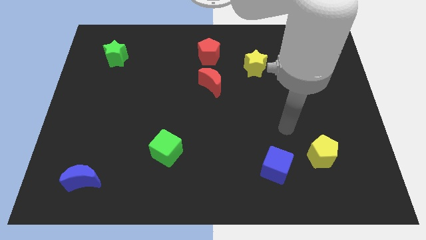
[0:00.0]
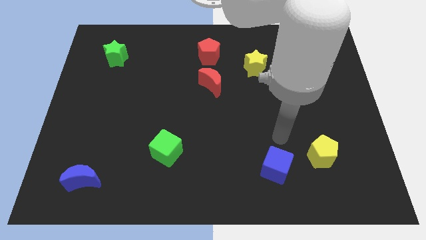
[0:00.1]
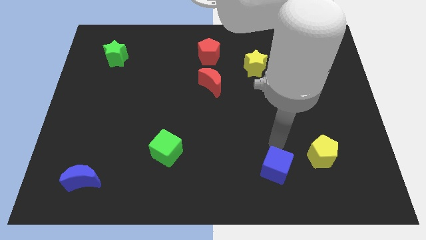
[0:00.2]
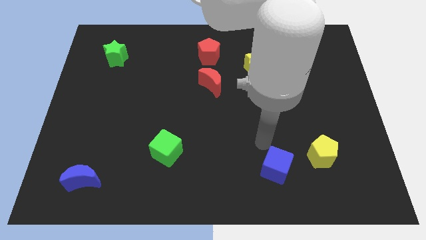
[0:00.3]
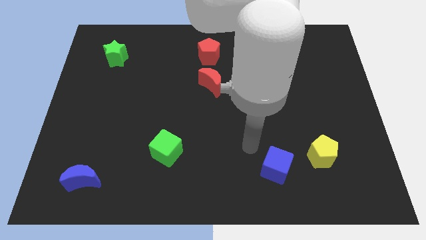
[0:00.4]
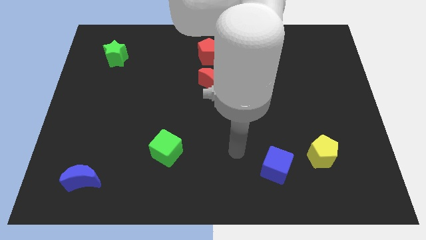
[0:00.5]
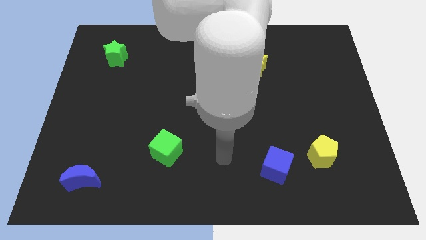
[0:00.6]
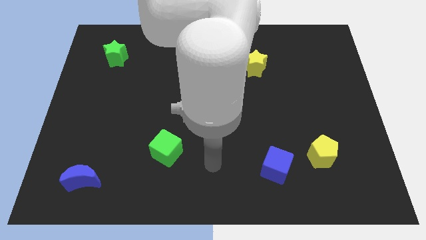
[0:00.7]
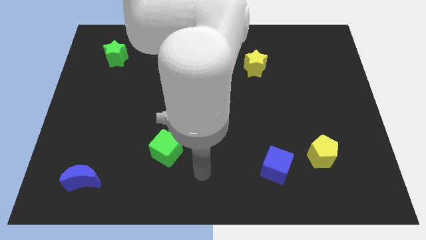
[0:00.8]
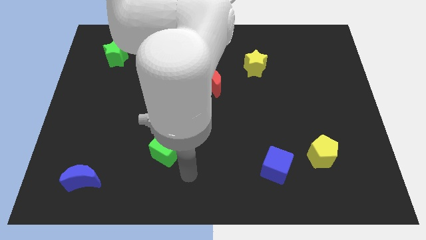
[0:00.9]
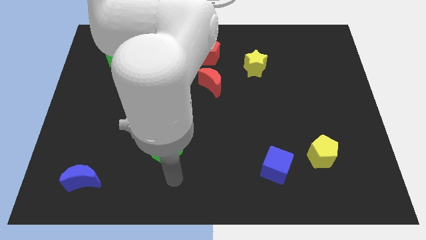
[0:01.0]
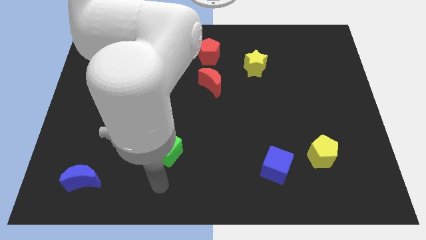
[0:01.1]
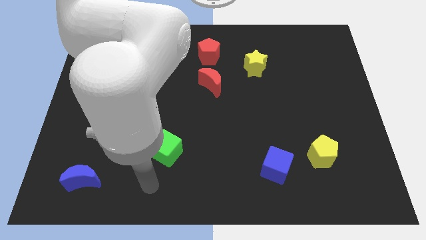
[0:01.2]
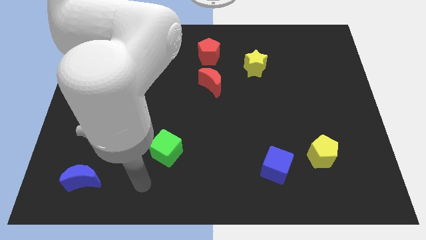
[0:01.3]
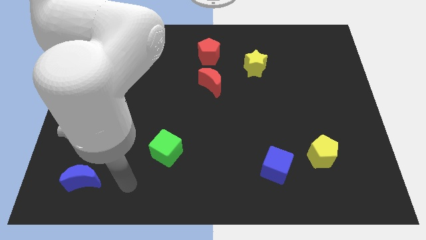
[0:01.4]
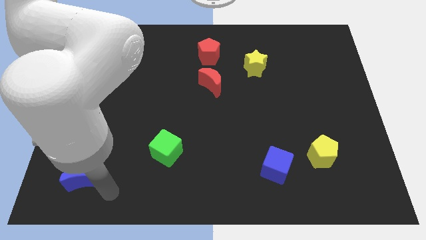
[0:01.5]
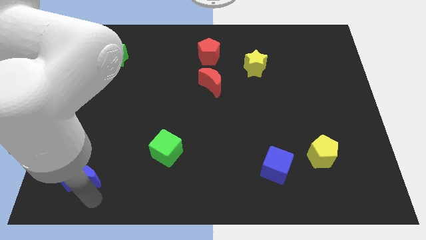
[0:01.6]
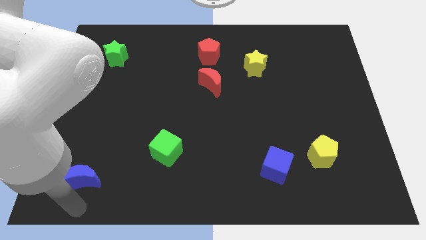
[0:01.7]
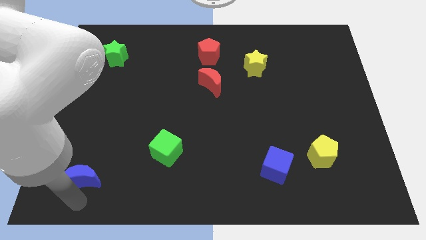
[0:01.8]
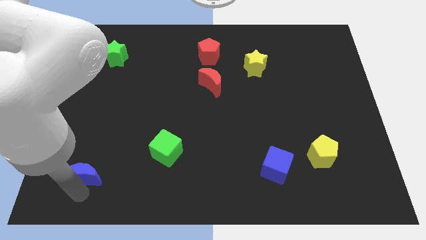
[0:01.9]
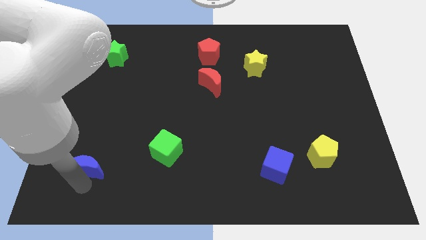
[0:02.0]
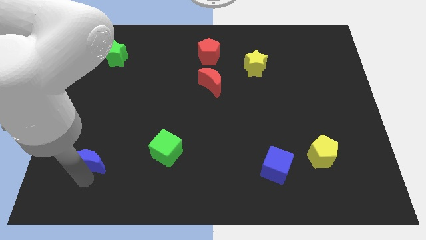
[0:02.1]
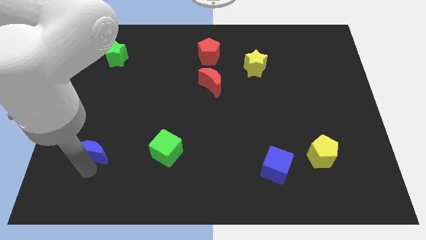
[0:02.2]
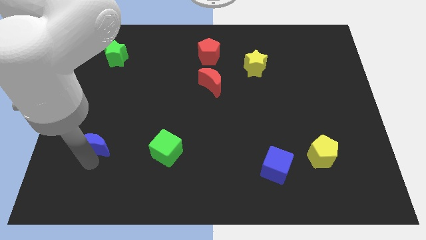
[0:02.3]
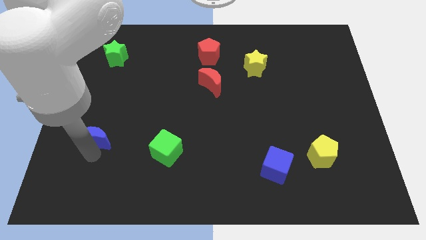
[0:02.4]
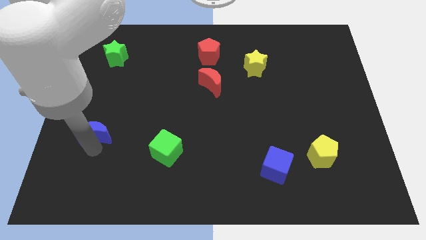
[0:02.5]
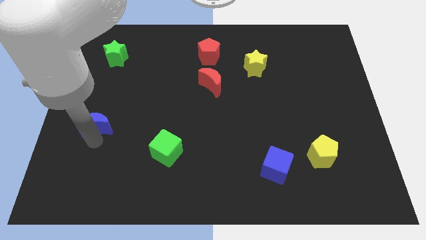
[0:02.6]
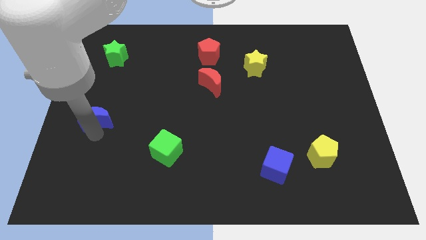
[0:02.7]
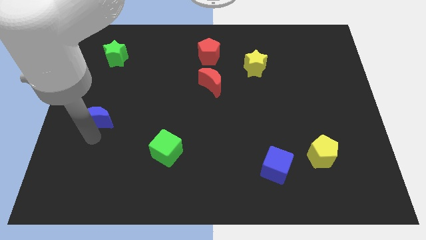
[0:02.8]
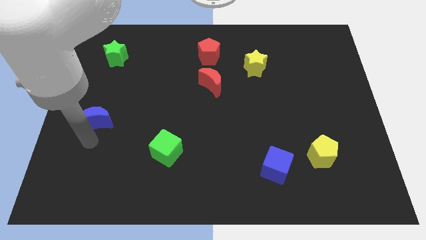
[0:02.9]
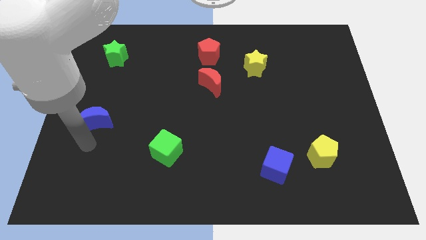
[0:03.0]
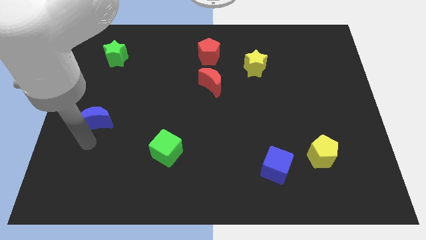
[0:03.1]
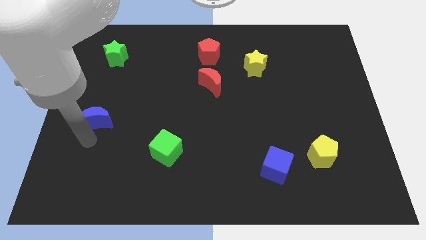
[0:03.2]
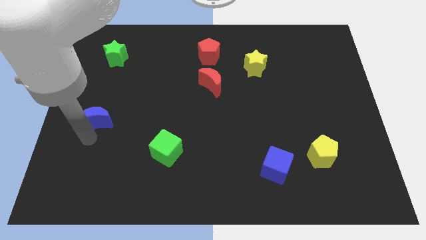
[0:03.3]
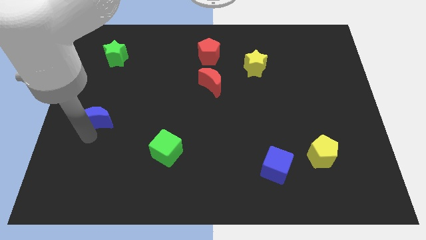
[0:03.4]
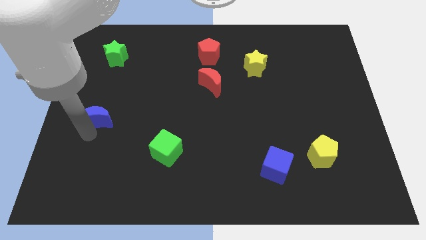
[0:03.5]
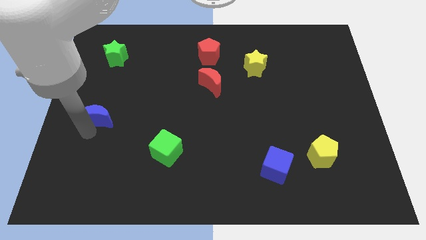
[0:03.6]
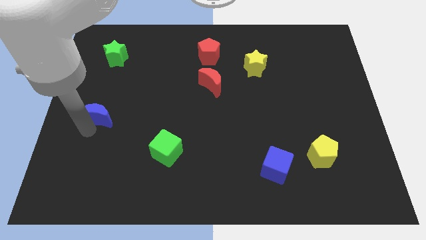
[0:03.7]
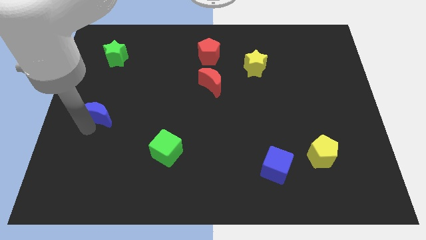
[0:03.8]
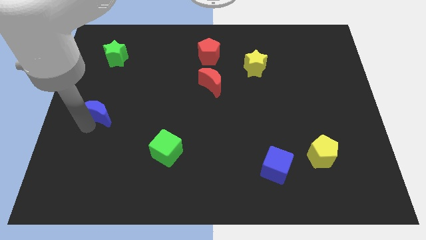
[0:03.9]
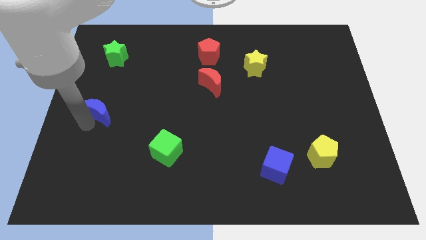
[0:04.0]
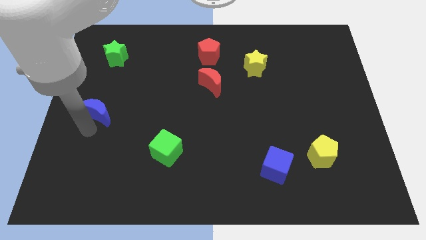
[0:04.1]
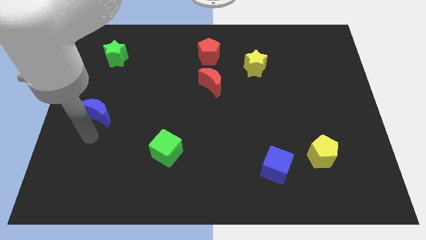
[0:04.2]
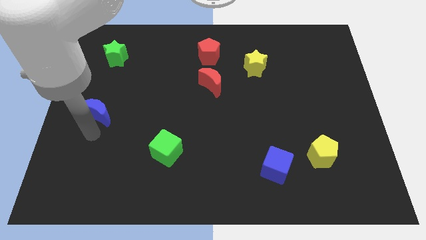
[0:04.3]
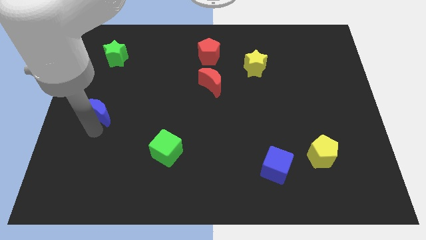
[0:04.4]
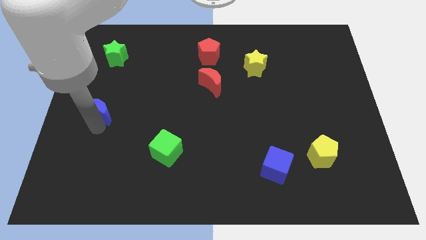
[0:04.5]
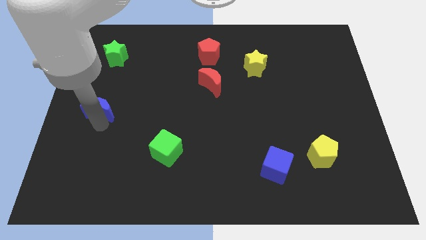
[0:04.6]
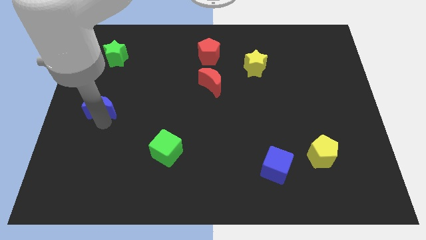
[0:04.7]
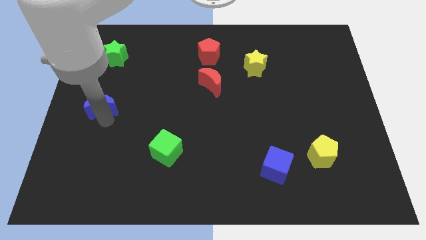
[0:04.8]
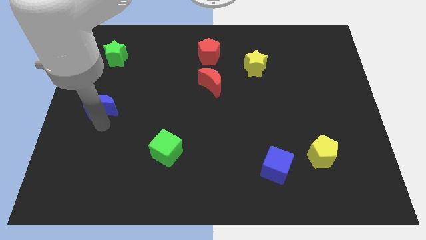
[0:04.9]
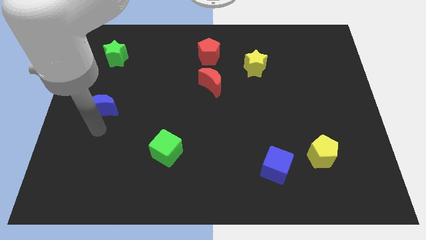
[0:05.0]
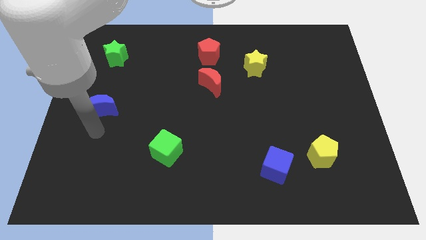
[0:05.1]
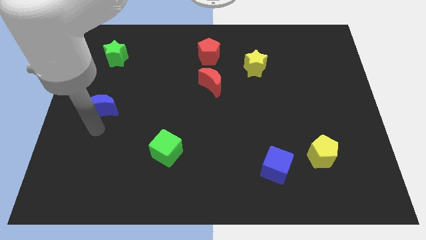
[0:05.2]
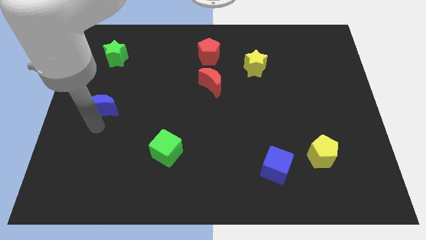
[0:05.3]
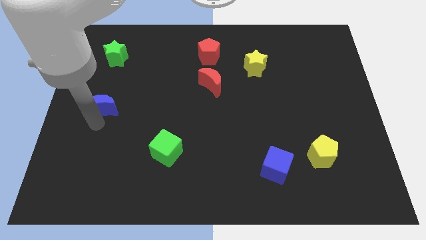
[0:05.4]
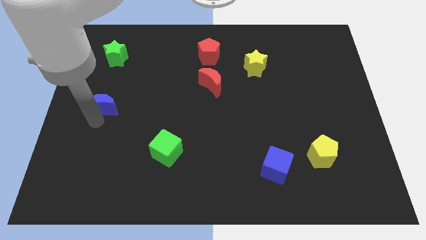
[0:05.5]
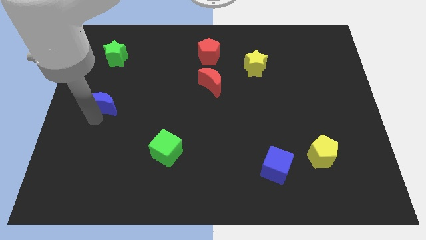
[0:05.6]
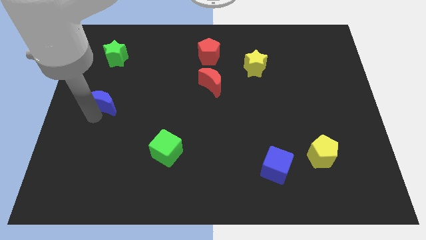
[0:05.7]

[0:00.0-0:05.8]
move the blue moon below the green star

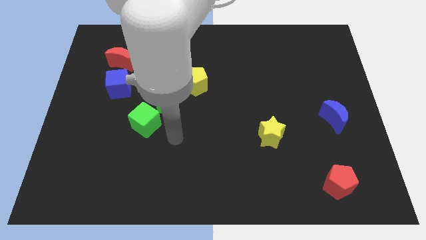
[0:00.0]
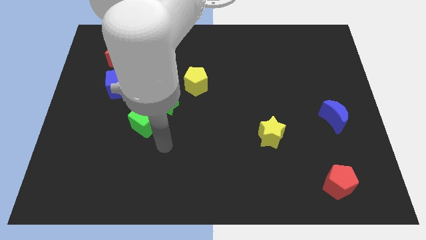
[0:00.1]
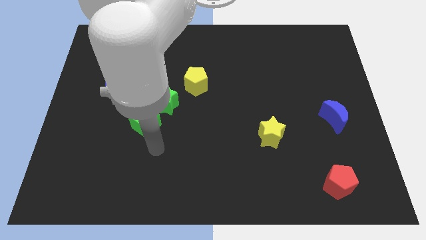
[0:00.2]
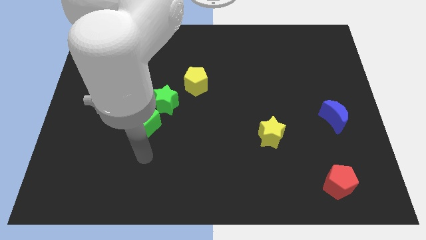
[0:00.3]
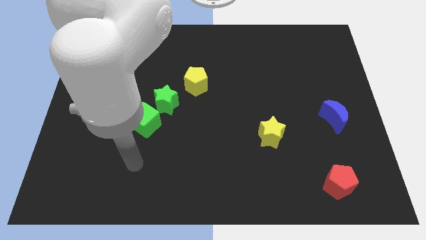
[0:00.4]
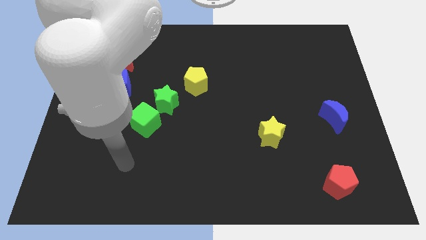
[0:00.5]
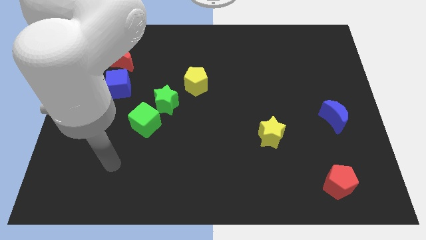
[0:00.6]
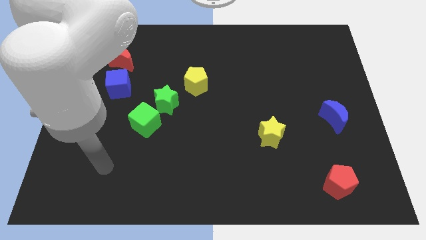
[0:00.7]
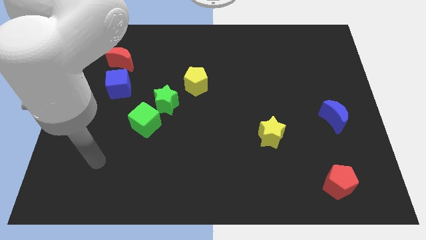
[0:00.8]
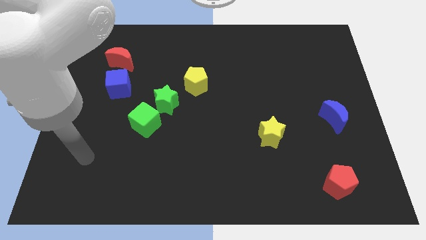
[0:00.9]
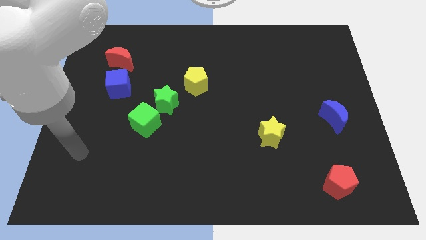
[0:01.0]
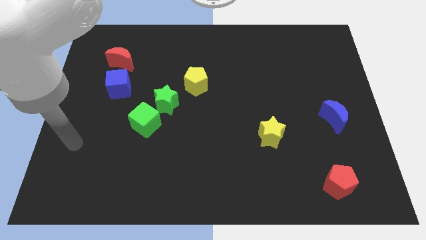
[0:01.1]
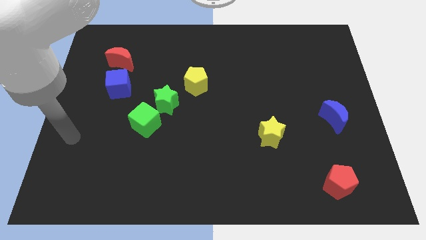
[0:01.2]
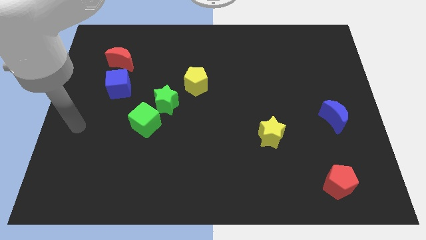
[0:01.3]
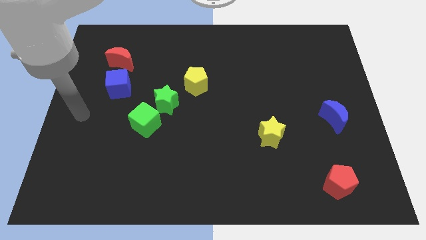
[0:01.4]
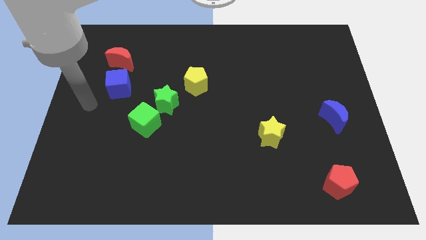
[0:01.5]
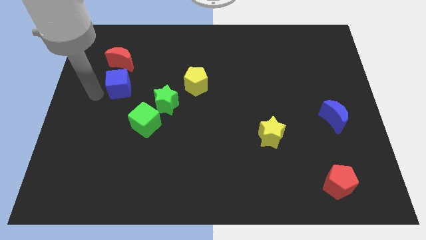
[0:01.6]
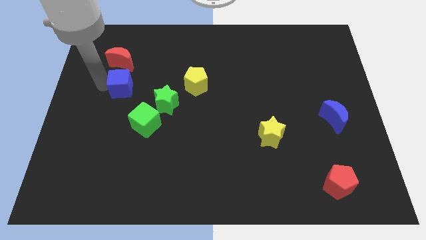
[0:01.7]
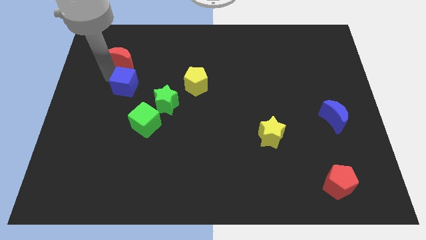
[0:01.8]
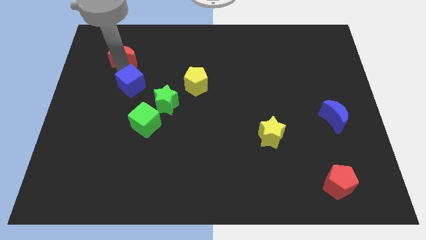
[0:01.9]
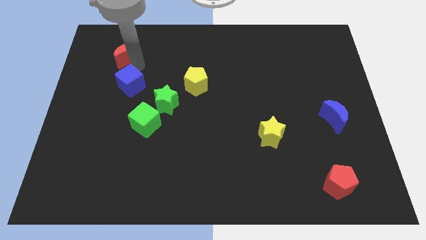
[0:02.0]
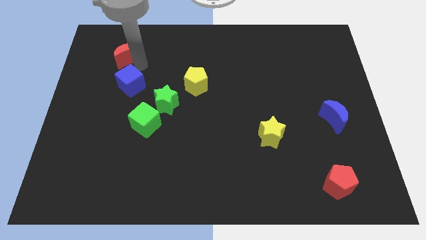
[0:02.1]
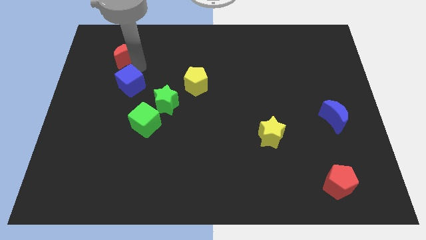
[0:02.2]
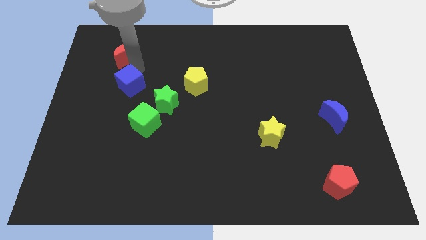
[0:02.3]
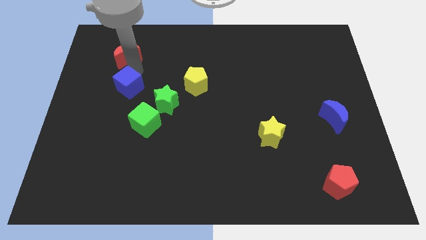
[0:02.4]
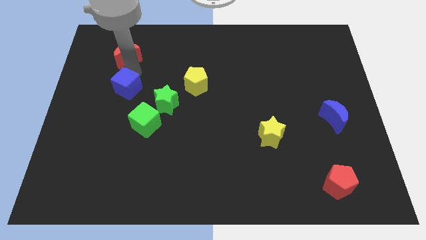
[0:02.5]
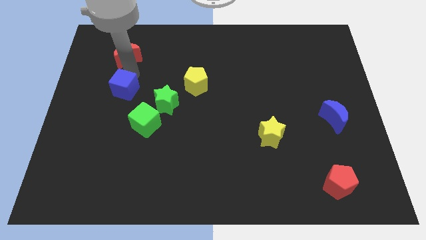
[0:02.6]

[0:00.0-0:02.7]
put the blue cube left of the green star
